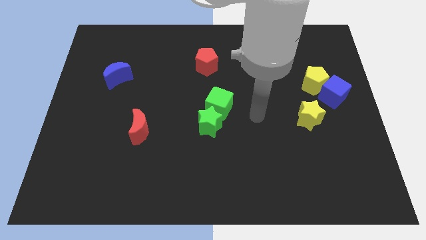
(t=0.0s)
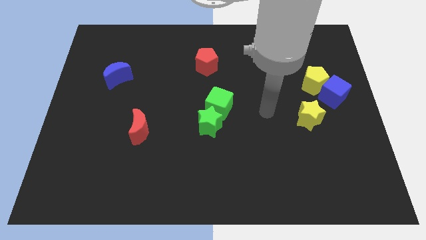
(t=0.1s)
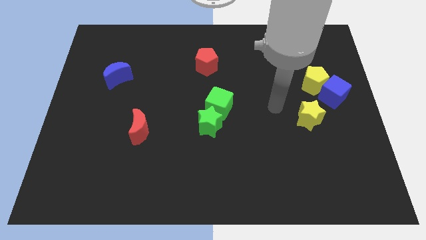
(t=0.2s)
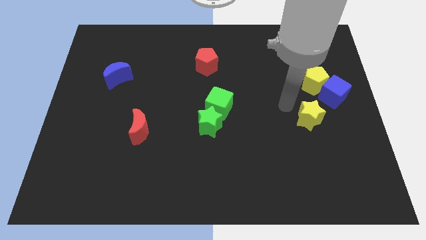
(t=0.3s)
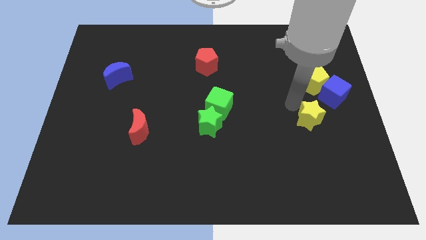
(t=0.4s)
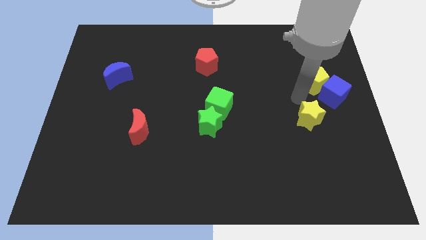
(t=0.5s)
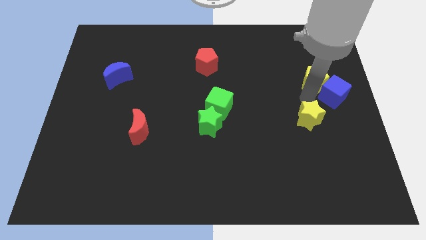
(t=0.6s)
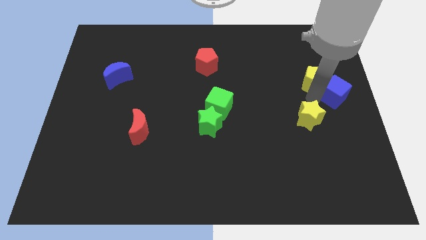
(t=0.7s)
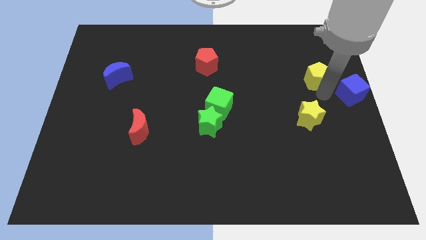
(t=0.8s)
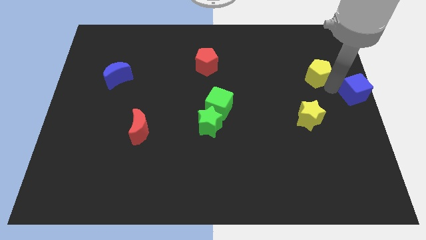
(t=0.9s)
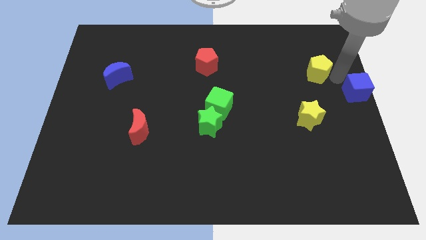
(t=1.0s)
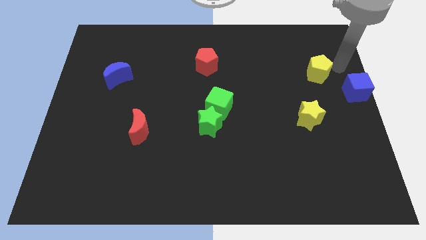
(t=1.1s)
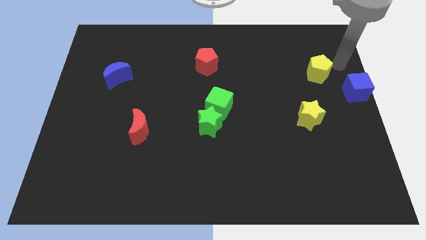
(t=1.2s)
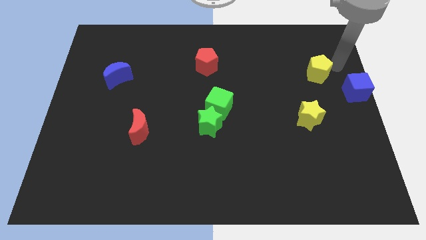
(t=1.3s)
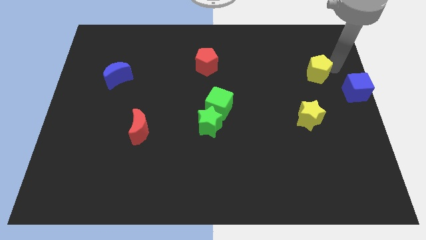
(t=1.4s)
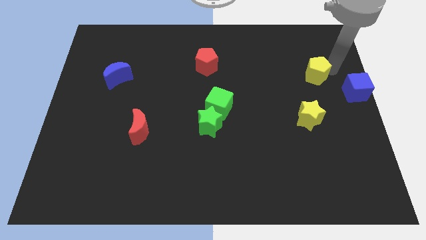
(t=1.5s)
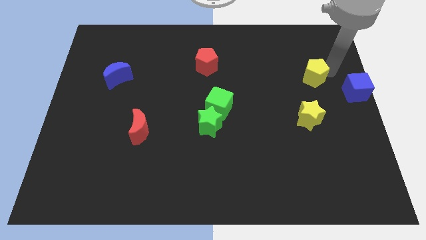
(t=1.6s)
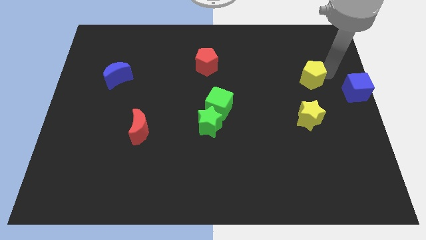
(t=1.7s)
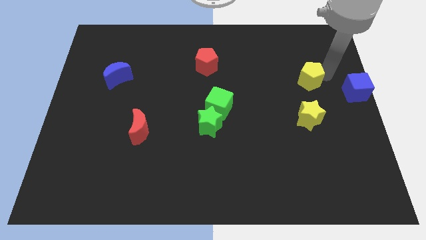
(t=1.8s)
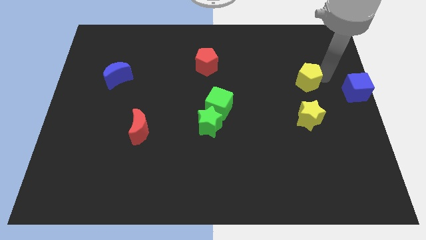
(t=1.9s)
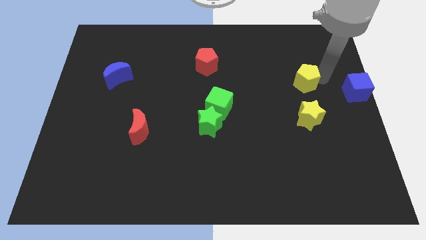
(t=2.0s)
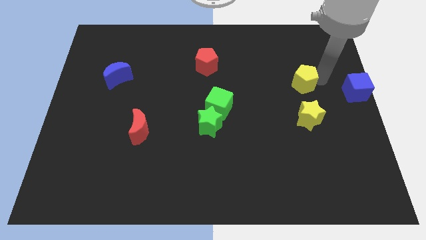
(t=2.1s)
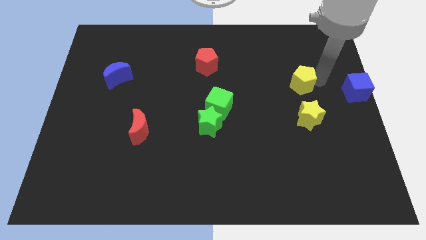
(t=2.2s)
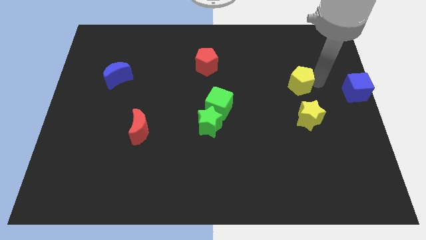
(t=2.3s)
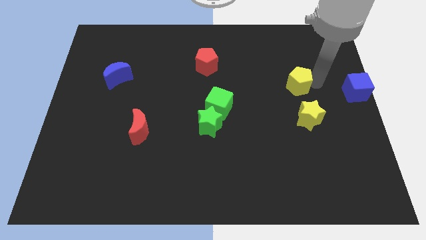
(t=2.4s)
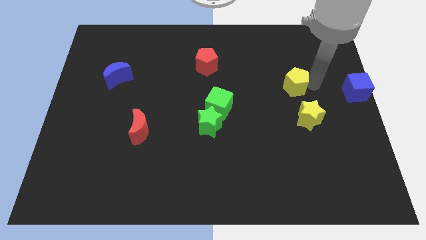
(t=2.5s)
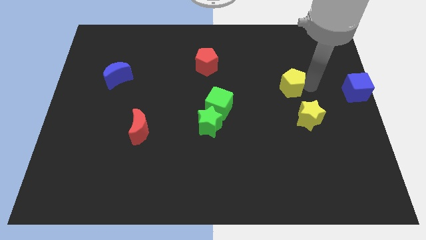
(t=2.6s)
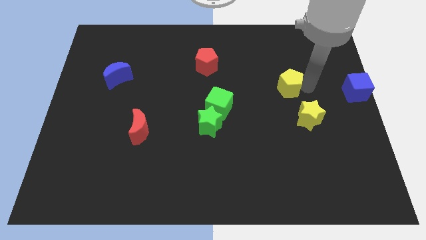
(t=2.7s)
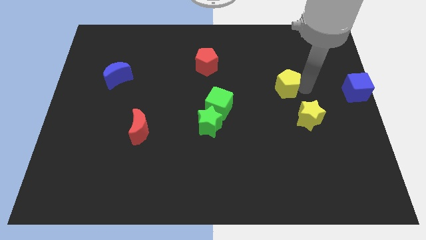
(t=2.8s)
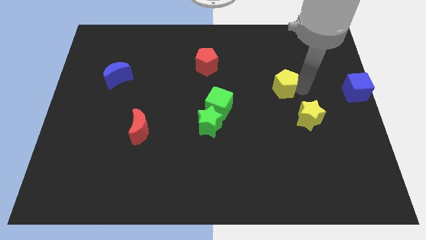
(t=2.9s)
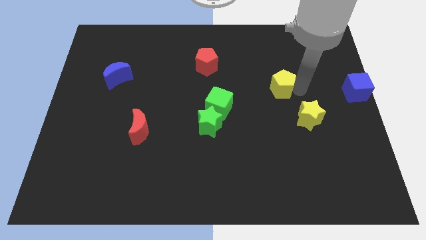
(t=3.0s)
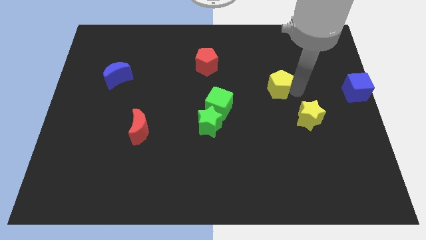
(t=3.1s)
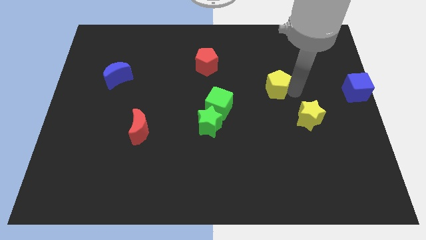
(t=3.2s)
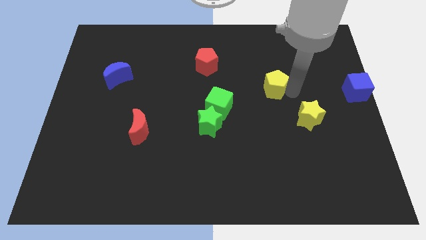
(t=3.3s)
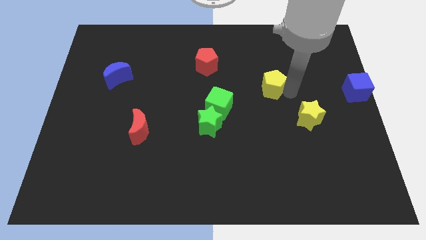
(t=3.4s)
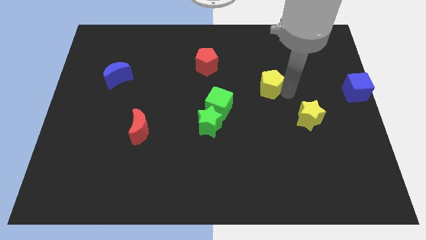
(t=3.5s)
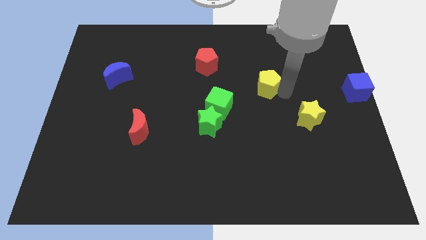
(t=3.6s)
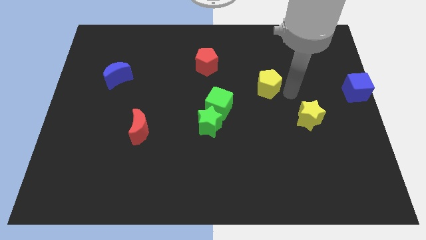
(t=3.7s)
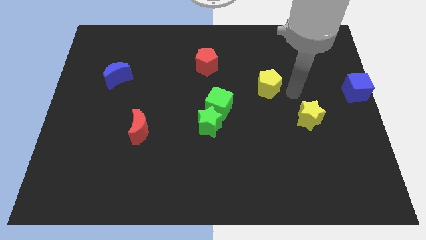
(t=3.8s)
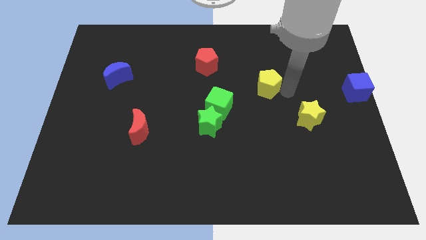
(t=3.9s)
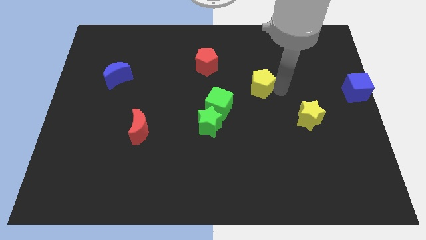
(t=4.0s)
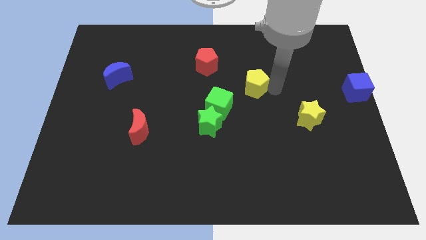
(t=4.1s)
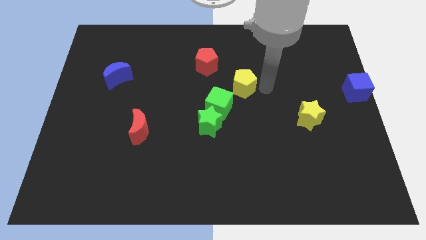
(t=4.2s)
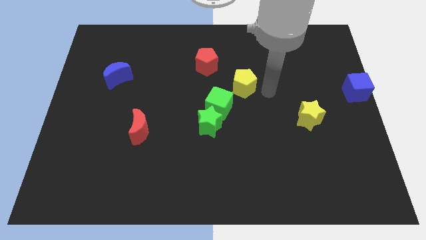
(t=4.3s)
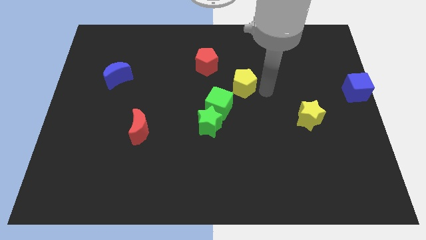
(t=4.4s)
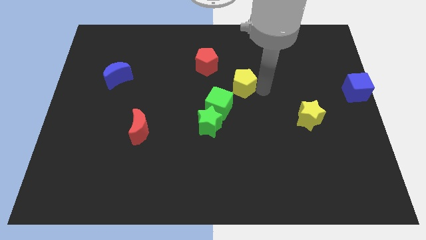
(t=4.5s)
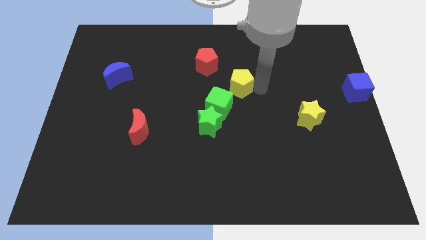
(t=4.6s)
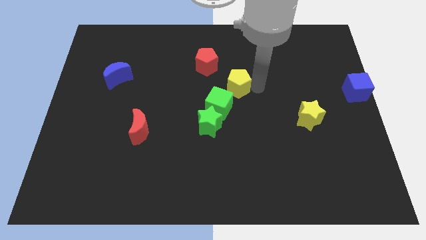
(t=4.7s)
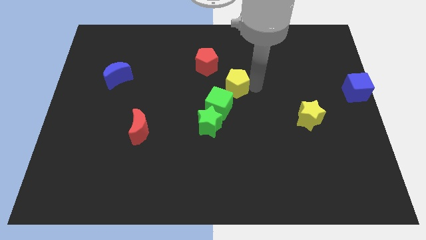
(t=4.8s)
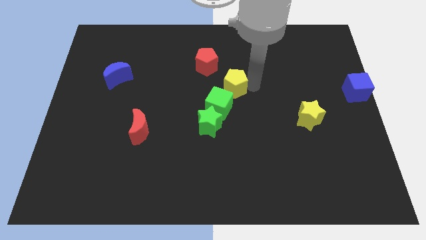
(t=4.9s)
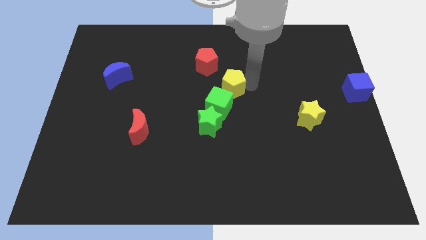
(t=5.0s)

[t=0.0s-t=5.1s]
push the yellow pentagon to the left

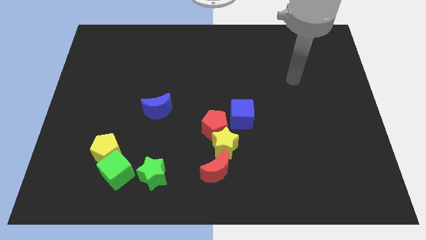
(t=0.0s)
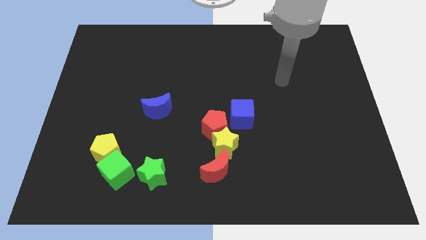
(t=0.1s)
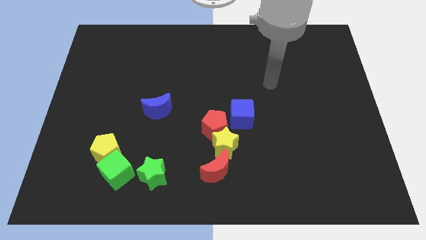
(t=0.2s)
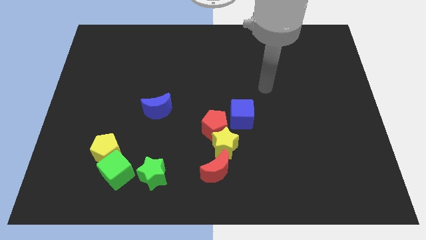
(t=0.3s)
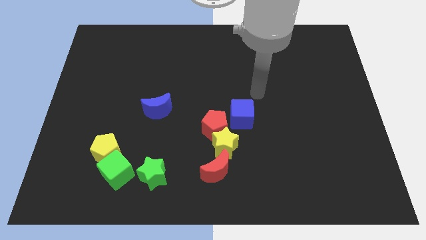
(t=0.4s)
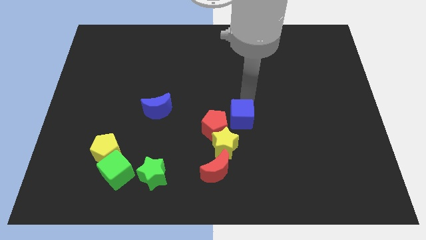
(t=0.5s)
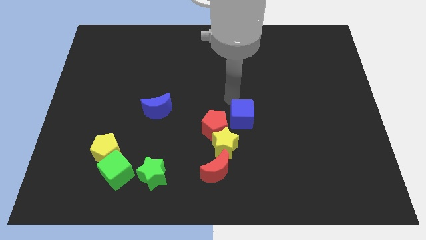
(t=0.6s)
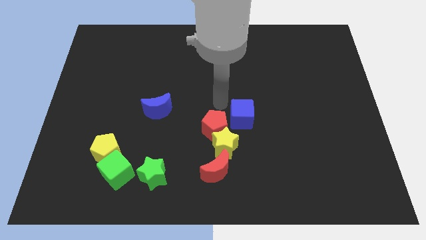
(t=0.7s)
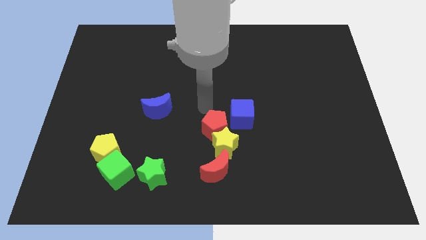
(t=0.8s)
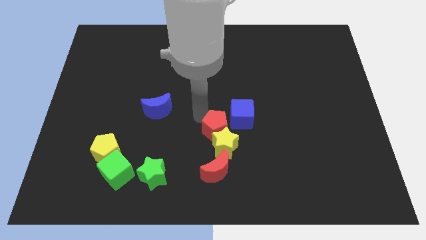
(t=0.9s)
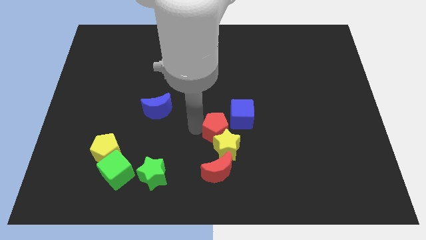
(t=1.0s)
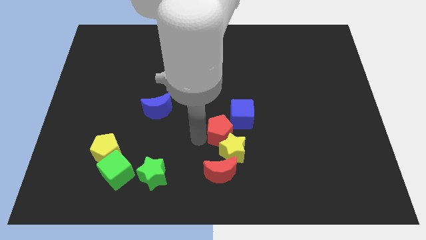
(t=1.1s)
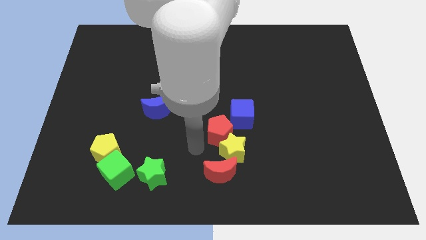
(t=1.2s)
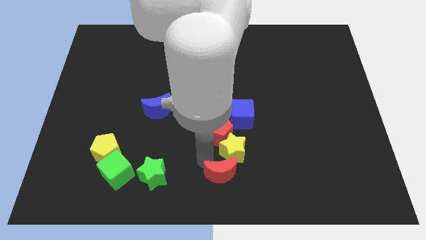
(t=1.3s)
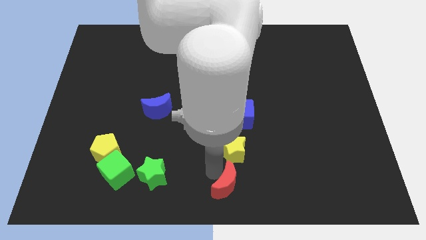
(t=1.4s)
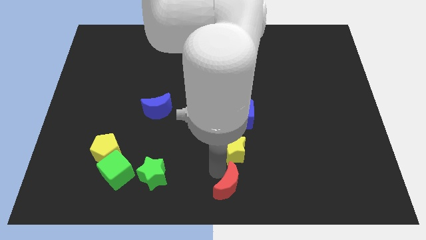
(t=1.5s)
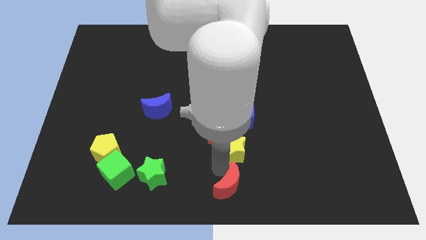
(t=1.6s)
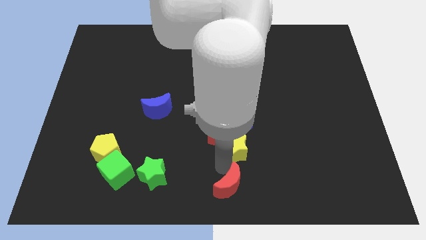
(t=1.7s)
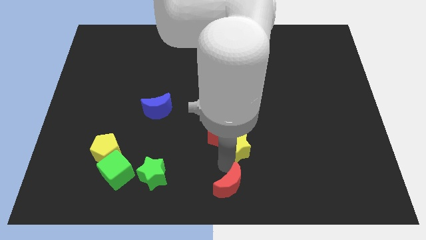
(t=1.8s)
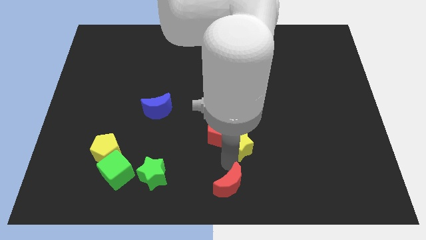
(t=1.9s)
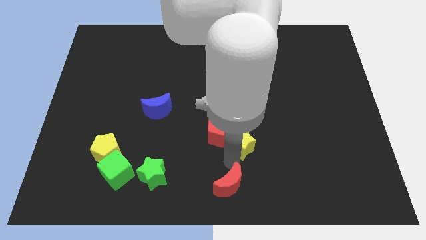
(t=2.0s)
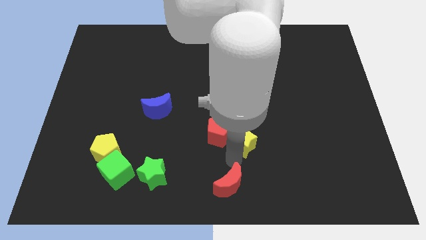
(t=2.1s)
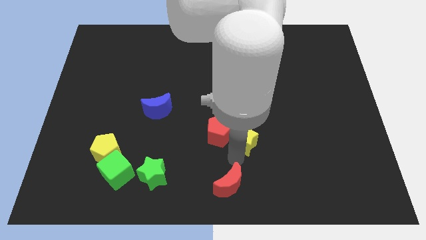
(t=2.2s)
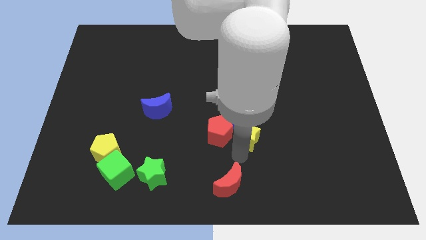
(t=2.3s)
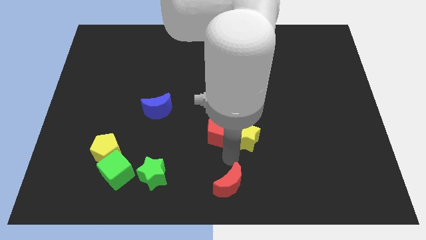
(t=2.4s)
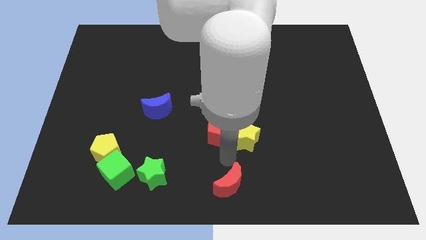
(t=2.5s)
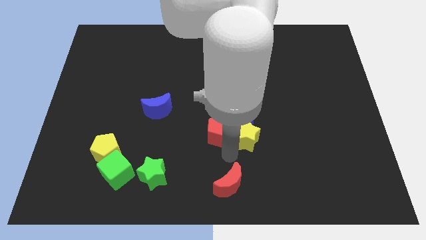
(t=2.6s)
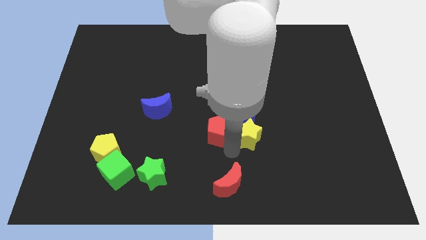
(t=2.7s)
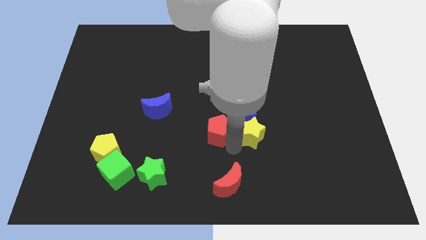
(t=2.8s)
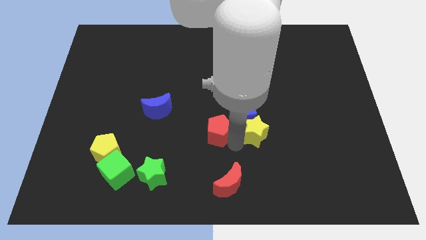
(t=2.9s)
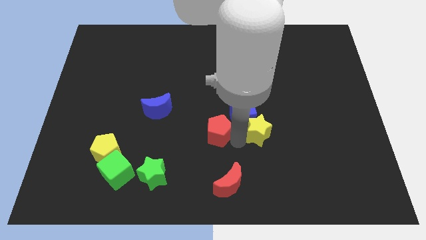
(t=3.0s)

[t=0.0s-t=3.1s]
slightly move the yellow star up and right
